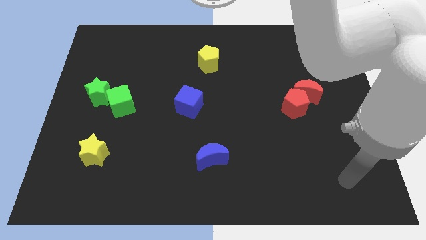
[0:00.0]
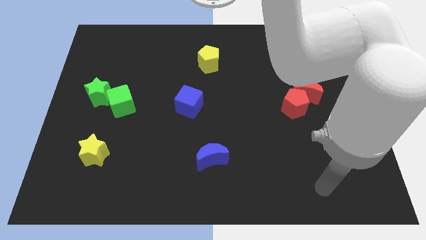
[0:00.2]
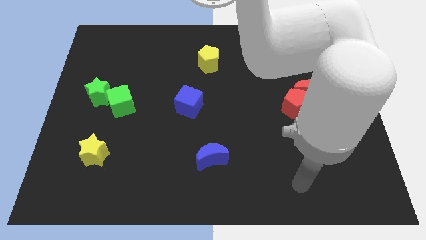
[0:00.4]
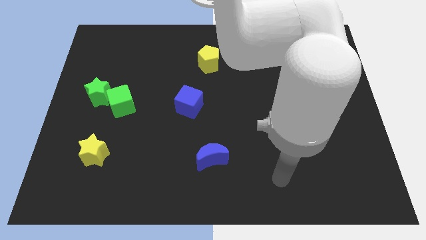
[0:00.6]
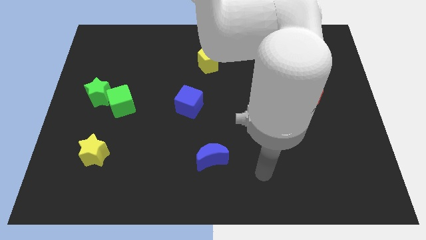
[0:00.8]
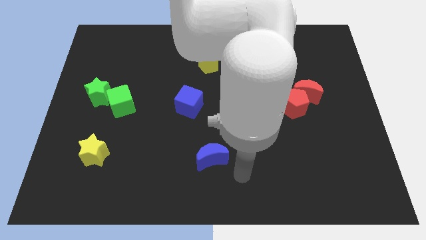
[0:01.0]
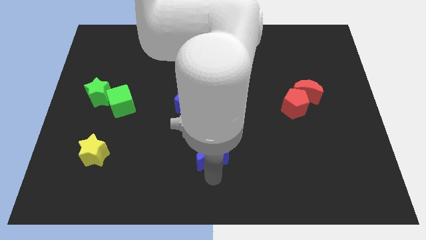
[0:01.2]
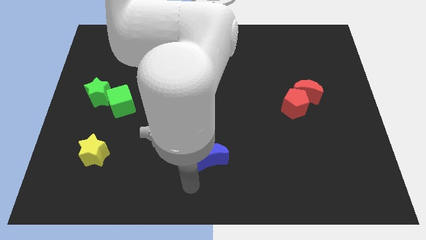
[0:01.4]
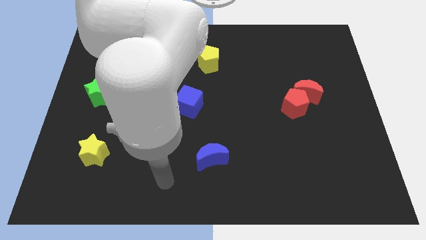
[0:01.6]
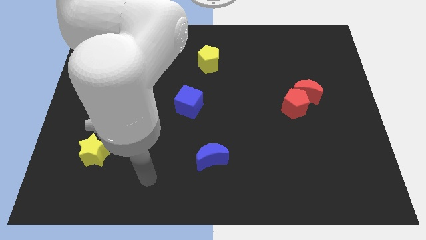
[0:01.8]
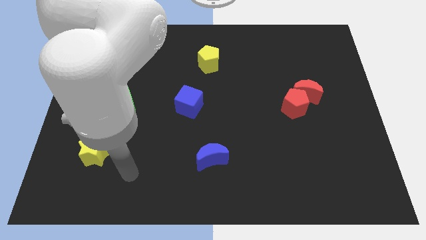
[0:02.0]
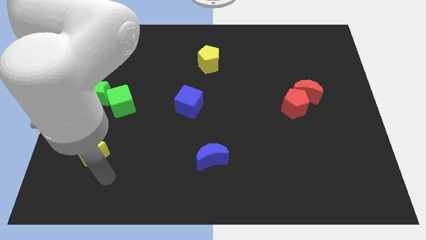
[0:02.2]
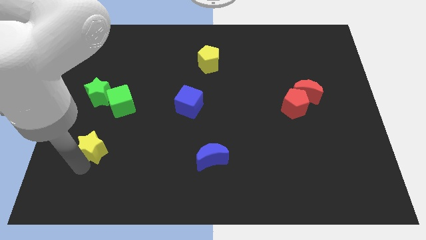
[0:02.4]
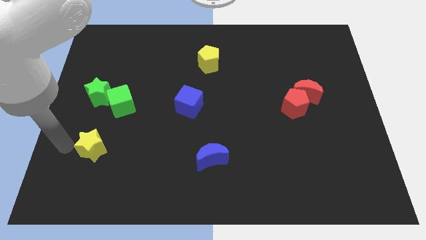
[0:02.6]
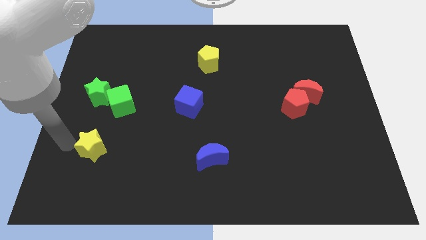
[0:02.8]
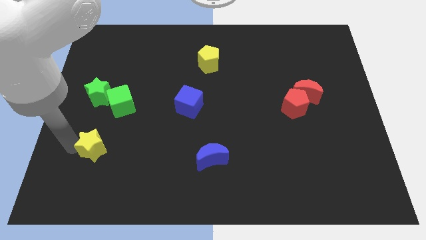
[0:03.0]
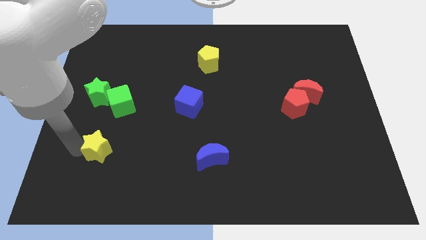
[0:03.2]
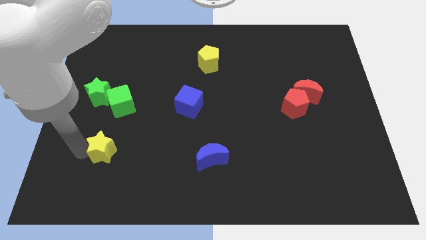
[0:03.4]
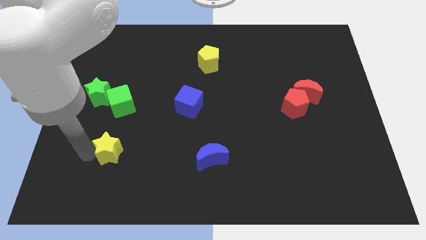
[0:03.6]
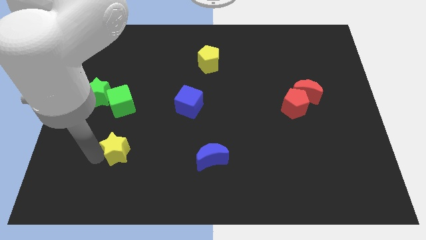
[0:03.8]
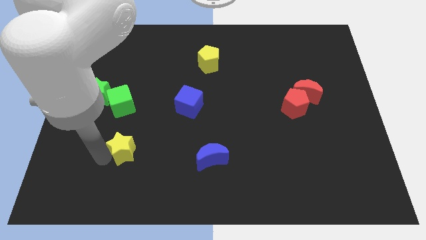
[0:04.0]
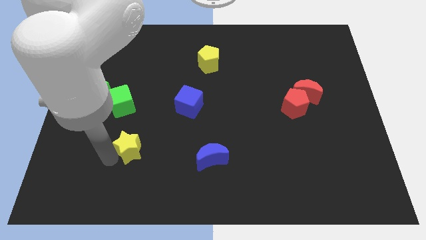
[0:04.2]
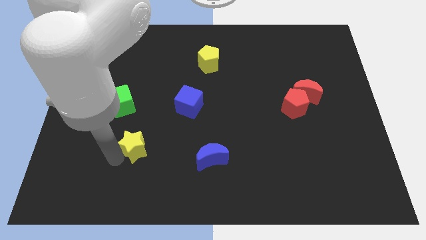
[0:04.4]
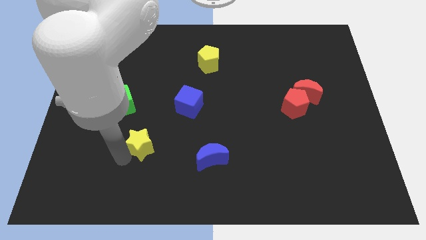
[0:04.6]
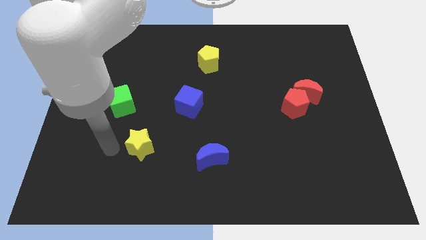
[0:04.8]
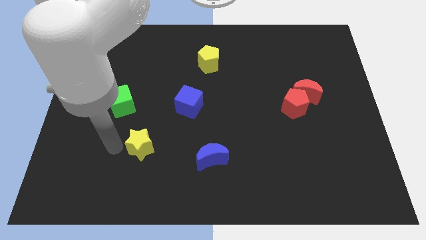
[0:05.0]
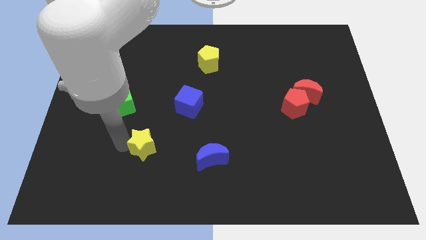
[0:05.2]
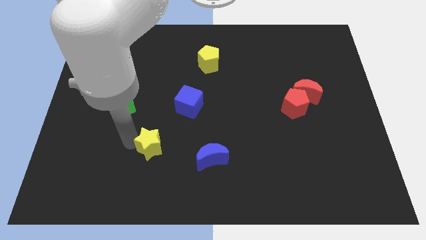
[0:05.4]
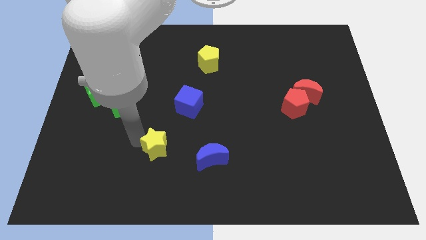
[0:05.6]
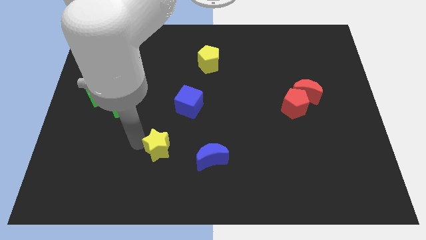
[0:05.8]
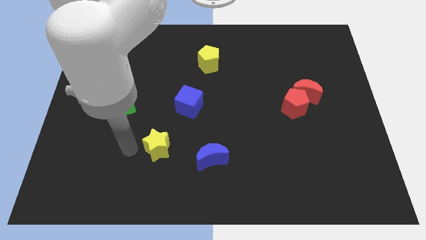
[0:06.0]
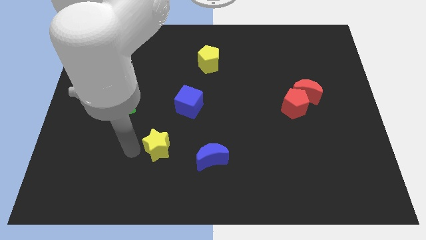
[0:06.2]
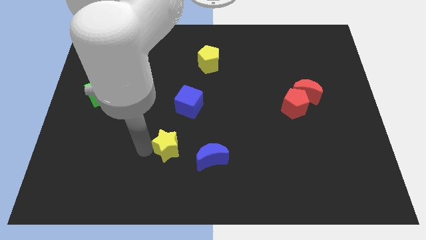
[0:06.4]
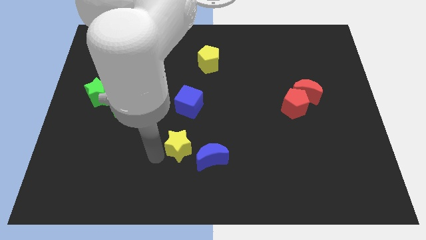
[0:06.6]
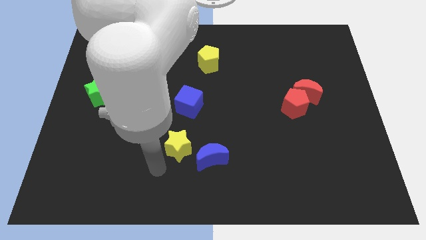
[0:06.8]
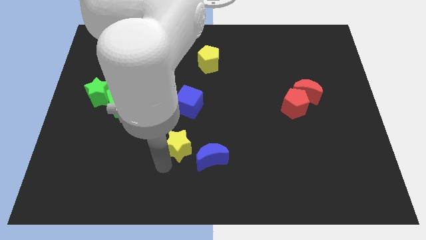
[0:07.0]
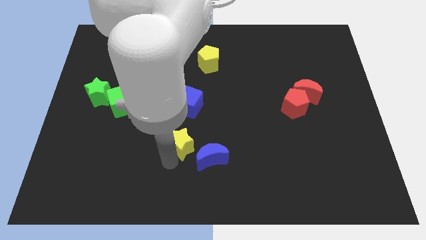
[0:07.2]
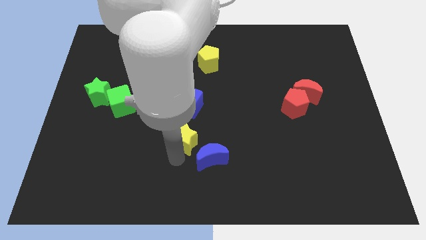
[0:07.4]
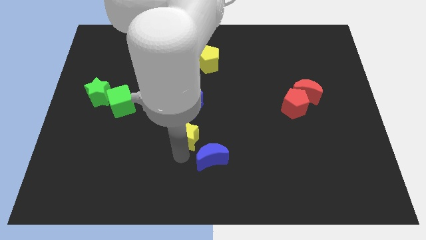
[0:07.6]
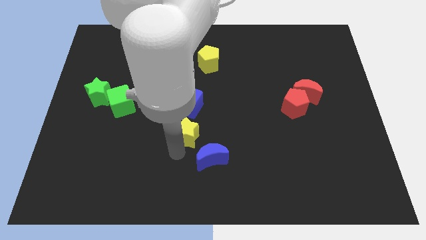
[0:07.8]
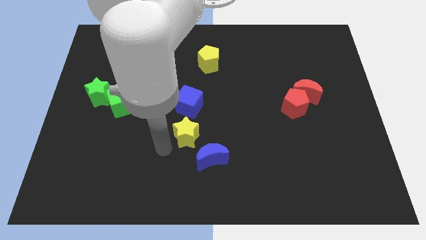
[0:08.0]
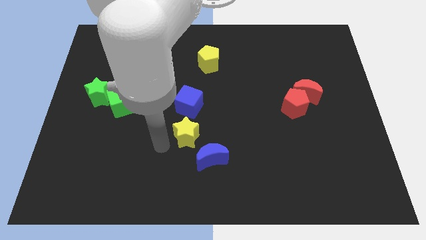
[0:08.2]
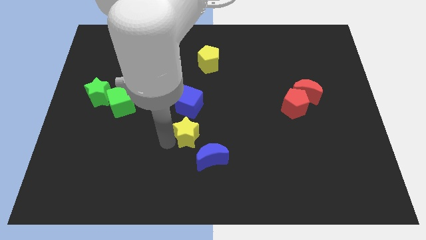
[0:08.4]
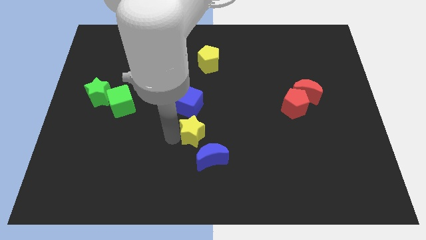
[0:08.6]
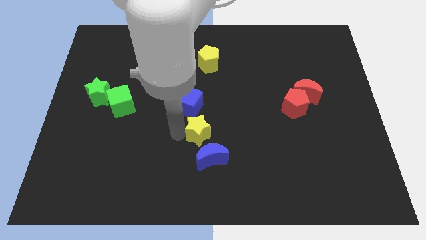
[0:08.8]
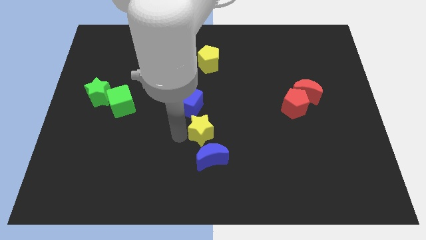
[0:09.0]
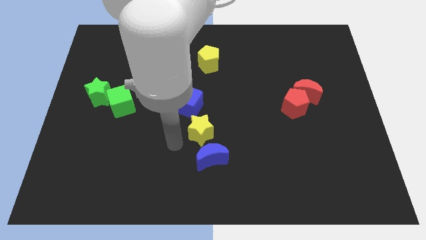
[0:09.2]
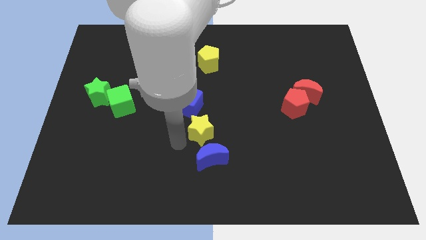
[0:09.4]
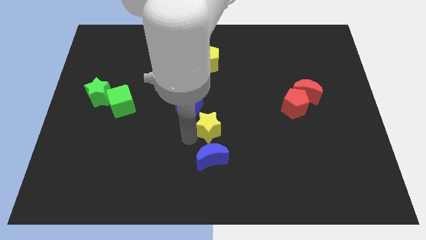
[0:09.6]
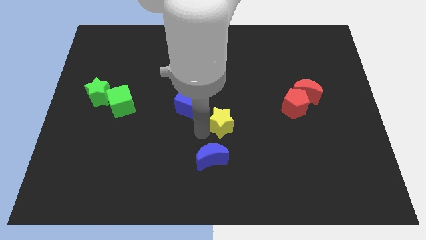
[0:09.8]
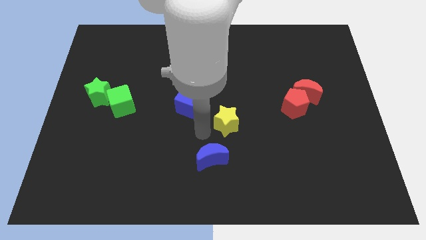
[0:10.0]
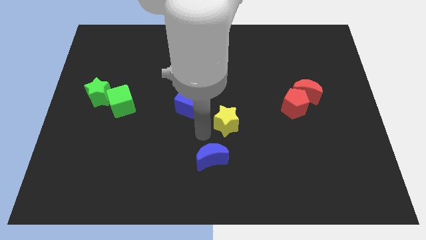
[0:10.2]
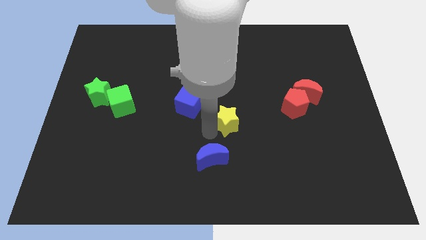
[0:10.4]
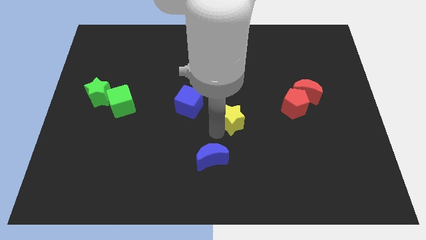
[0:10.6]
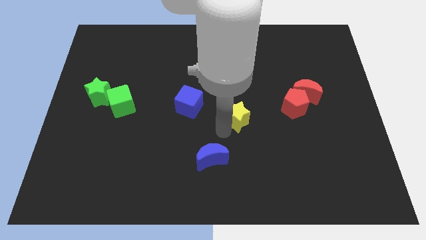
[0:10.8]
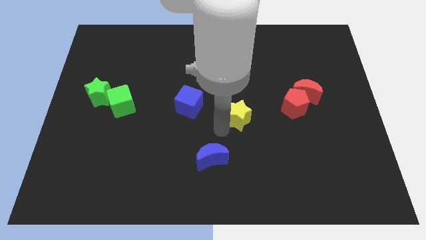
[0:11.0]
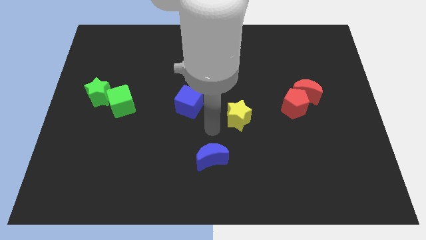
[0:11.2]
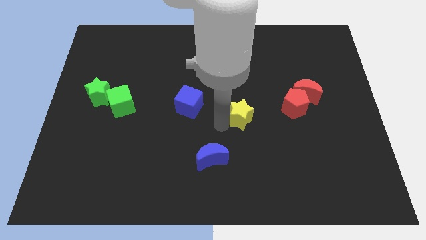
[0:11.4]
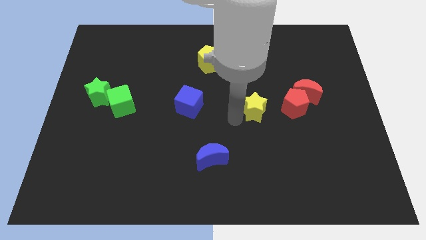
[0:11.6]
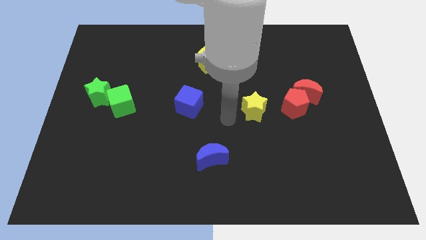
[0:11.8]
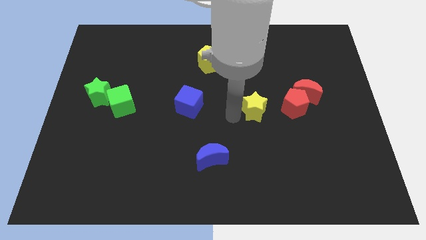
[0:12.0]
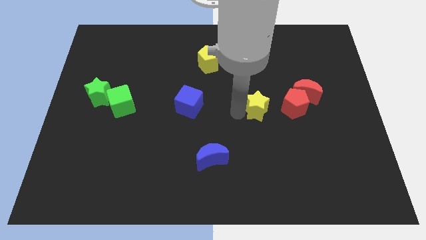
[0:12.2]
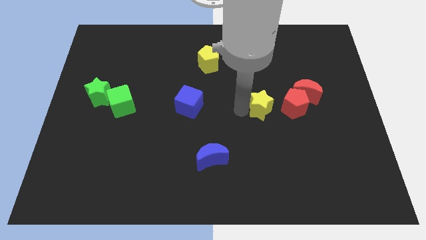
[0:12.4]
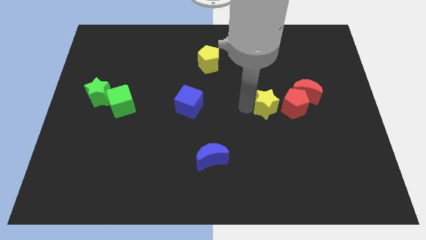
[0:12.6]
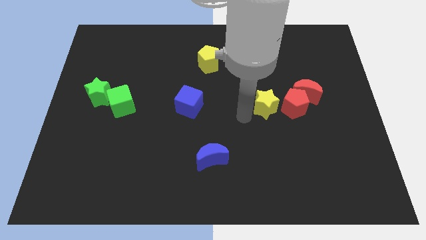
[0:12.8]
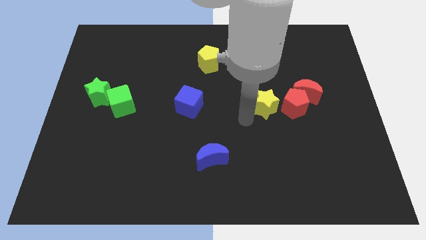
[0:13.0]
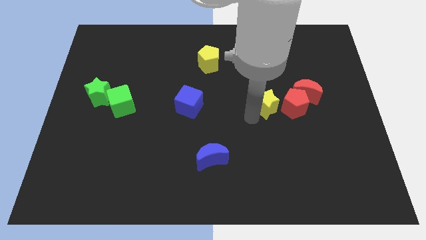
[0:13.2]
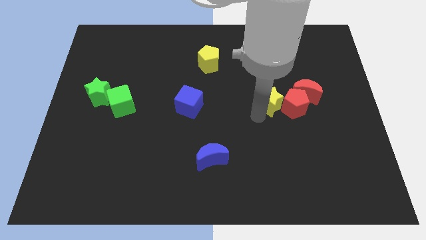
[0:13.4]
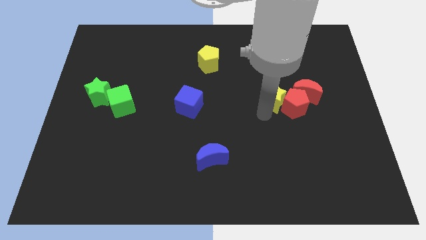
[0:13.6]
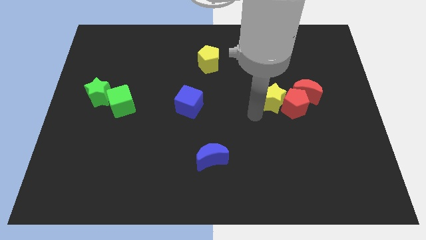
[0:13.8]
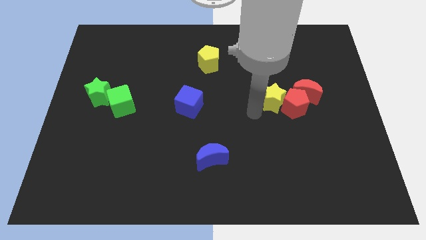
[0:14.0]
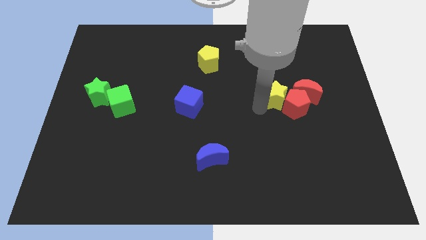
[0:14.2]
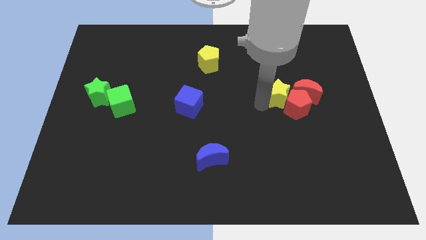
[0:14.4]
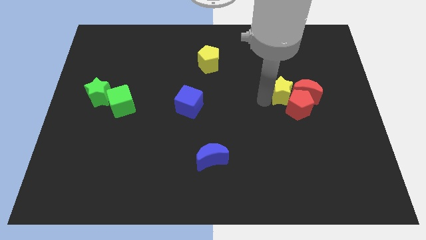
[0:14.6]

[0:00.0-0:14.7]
put the yellow star towards the red moon
